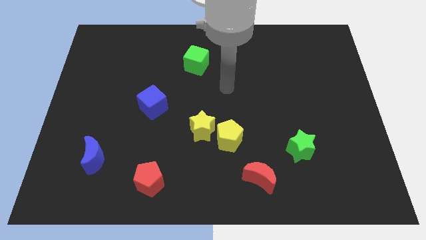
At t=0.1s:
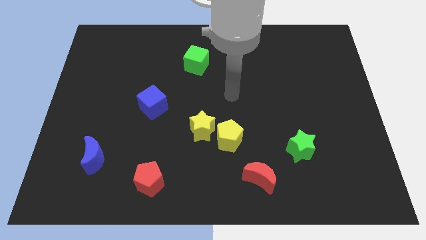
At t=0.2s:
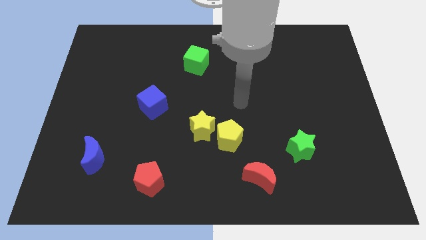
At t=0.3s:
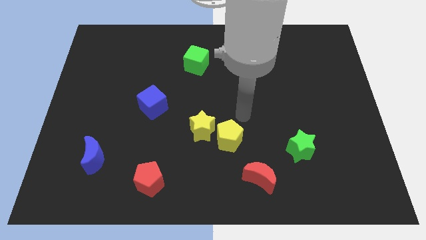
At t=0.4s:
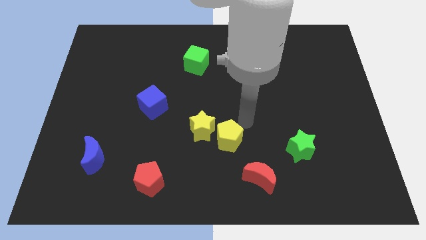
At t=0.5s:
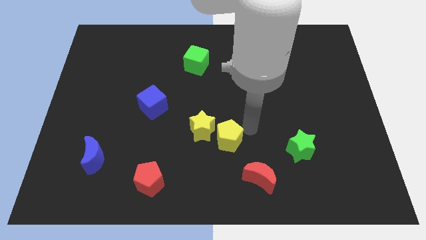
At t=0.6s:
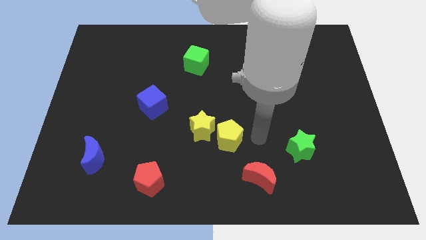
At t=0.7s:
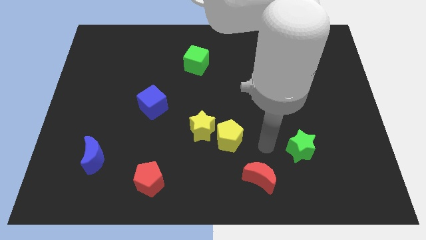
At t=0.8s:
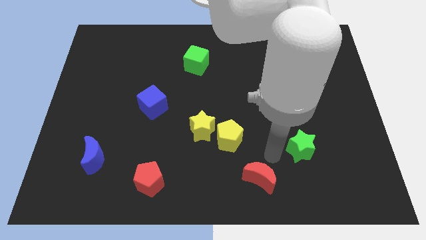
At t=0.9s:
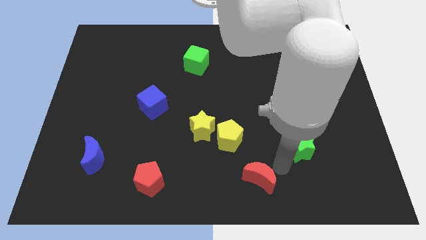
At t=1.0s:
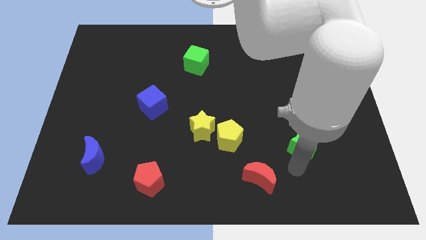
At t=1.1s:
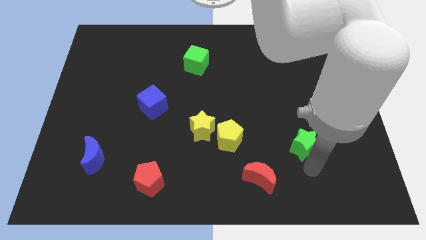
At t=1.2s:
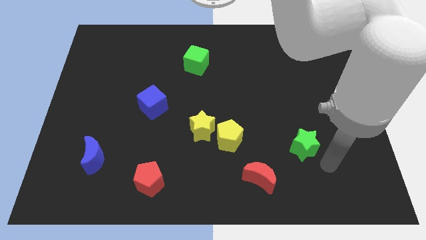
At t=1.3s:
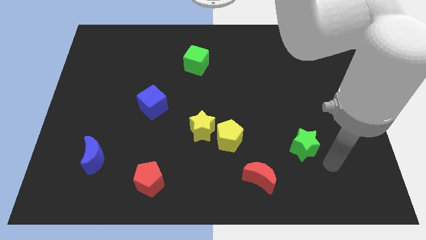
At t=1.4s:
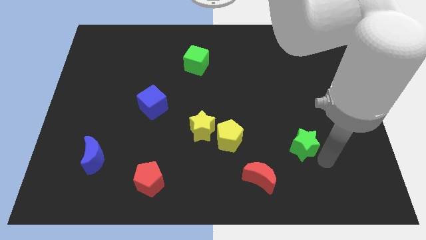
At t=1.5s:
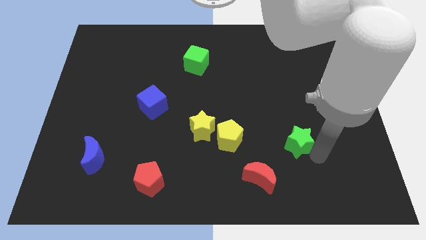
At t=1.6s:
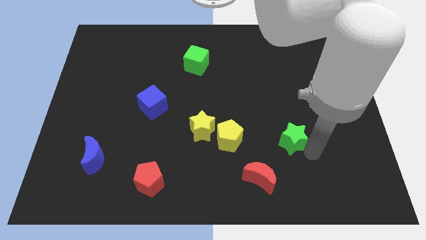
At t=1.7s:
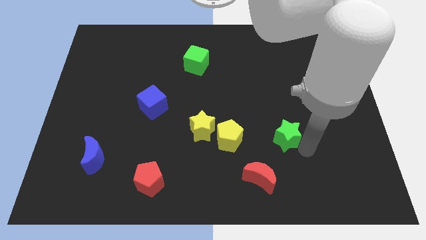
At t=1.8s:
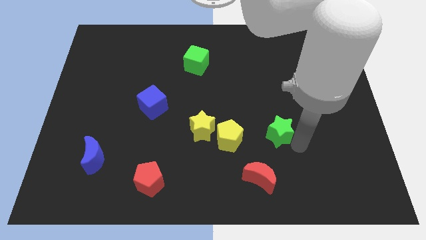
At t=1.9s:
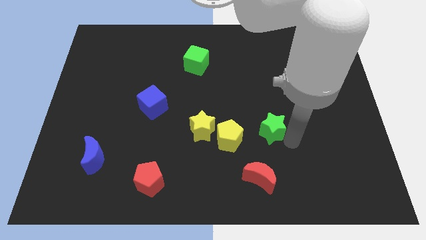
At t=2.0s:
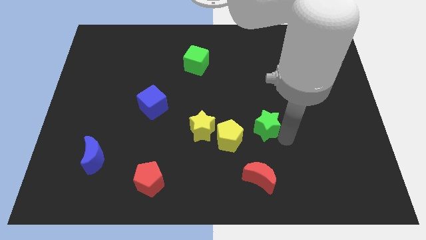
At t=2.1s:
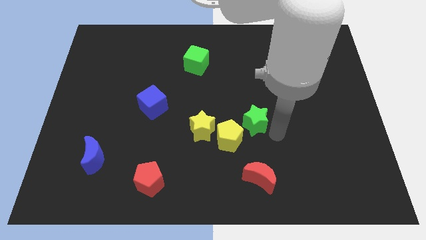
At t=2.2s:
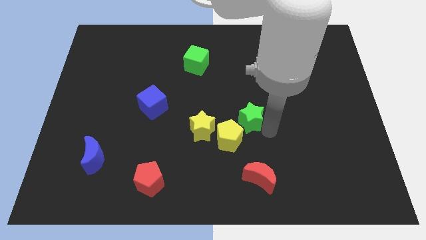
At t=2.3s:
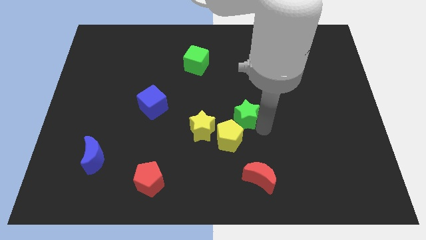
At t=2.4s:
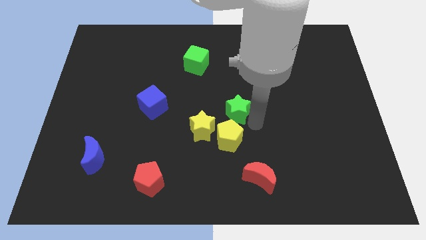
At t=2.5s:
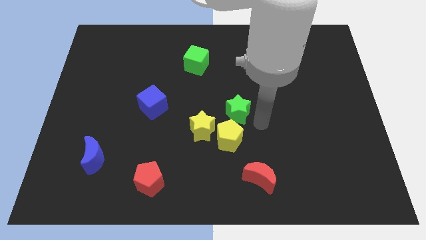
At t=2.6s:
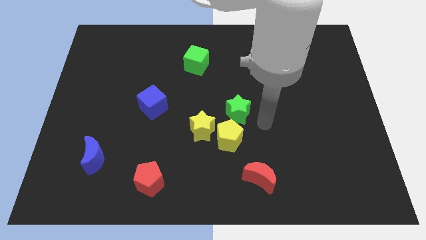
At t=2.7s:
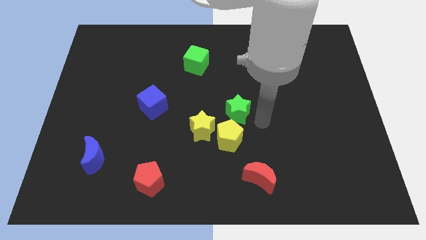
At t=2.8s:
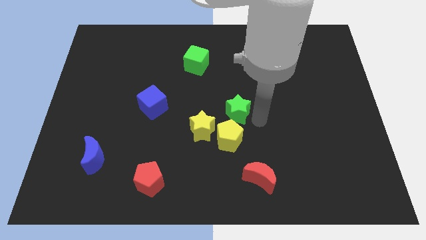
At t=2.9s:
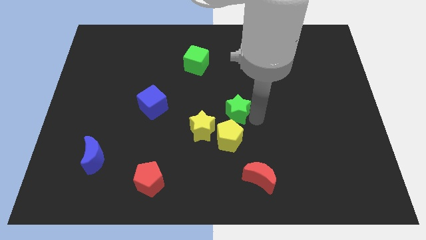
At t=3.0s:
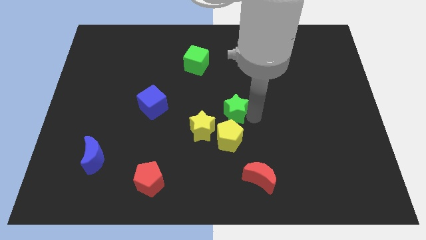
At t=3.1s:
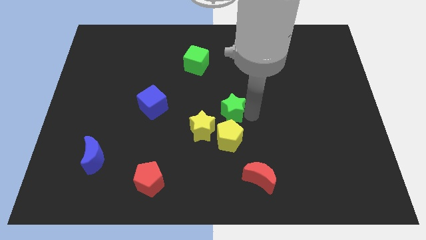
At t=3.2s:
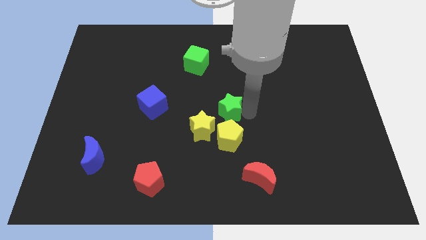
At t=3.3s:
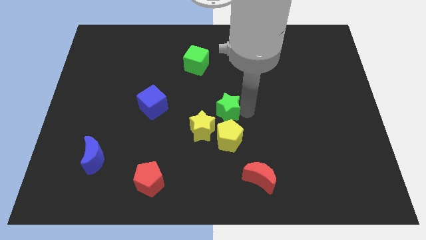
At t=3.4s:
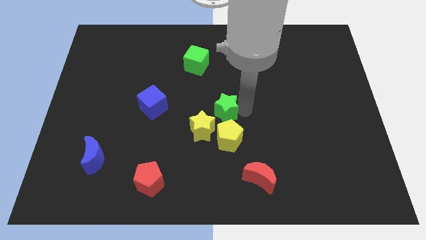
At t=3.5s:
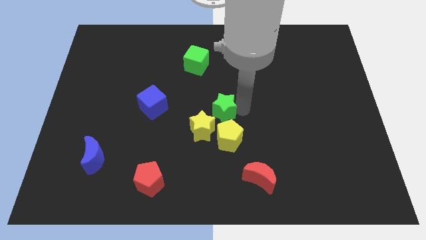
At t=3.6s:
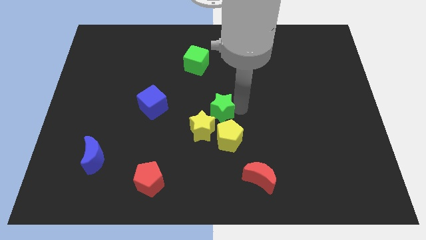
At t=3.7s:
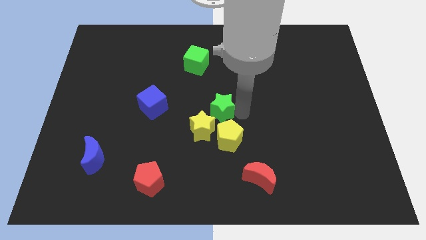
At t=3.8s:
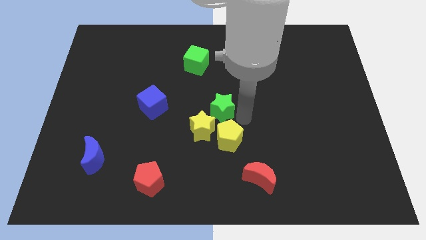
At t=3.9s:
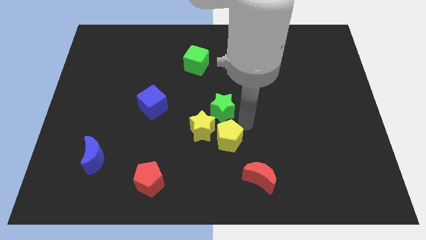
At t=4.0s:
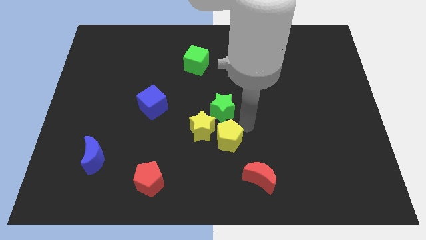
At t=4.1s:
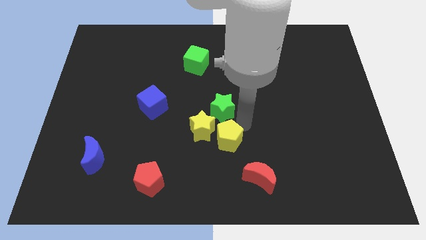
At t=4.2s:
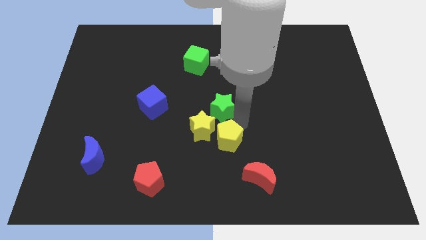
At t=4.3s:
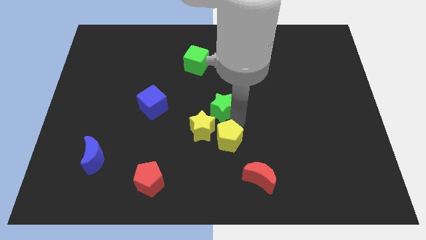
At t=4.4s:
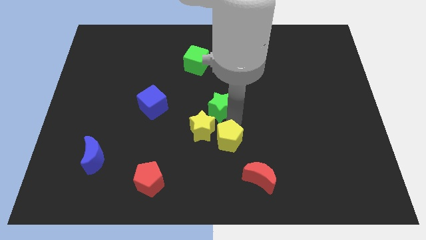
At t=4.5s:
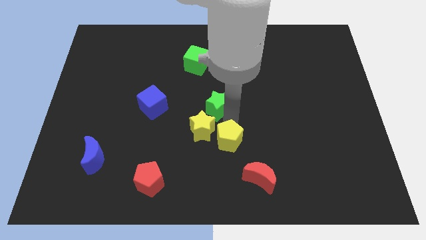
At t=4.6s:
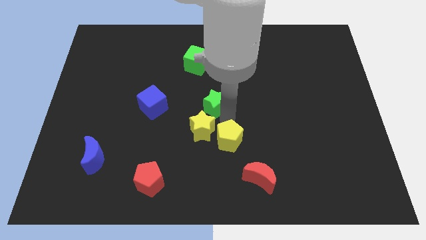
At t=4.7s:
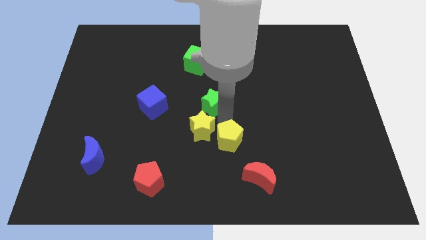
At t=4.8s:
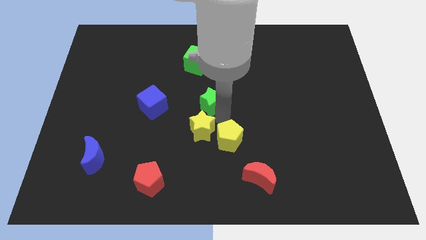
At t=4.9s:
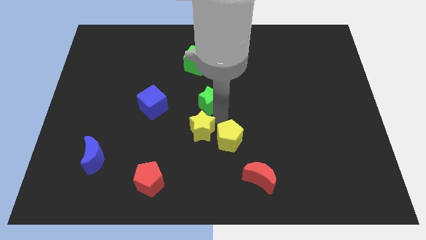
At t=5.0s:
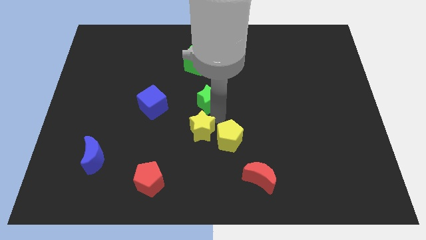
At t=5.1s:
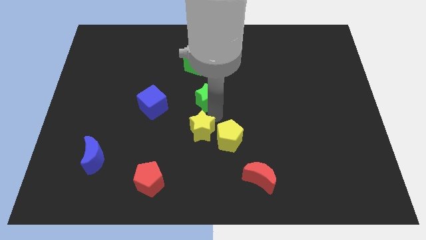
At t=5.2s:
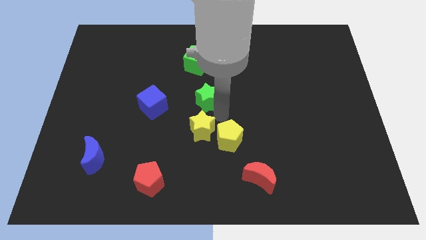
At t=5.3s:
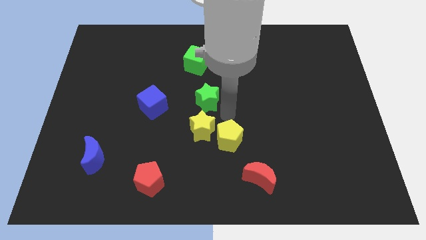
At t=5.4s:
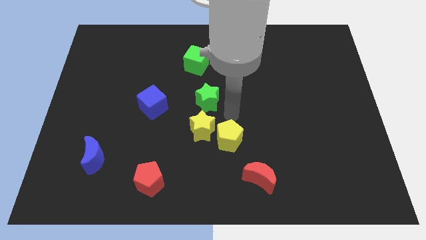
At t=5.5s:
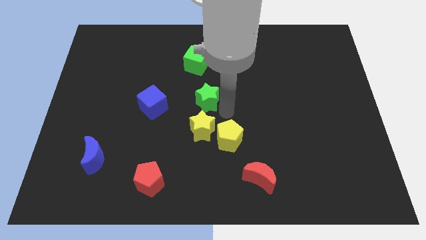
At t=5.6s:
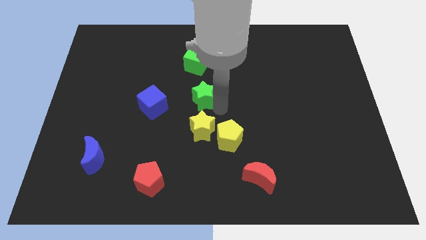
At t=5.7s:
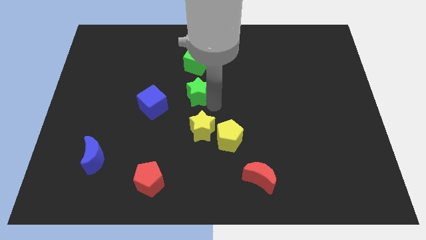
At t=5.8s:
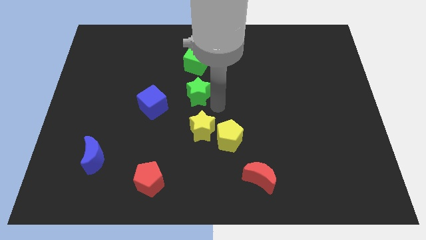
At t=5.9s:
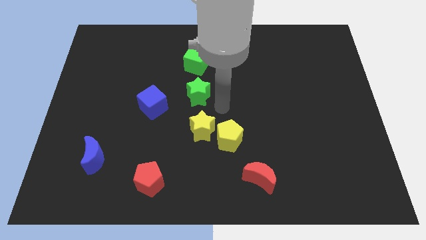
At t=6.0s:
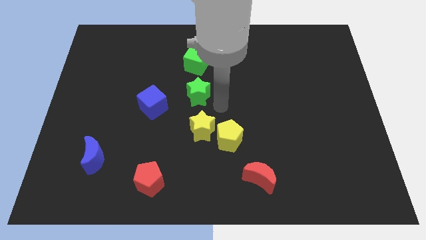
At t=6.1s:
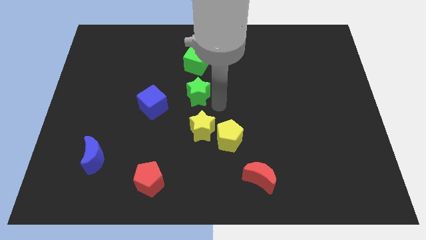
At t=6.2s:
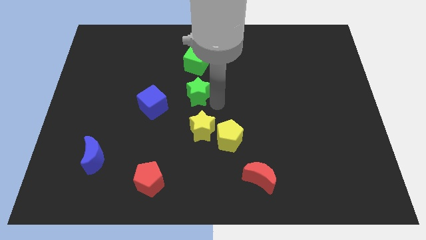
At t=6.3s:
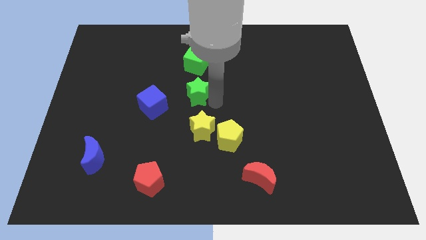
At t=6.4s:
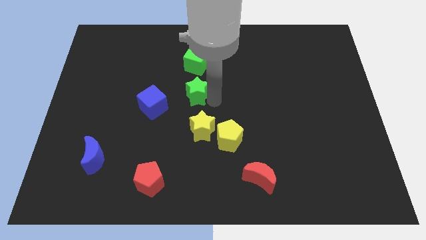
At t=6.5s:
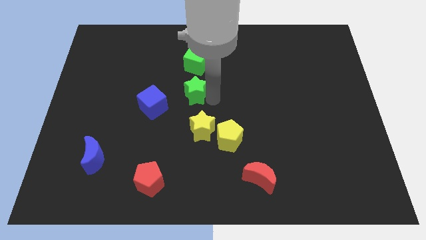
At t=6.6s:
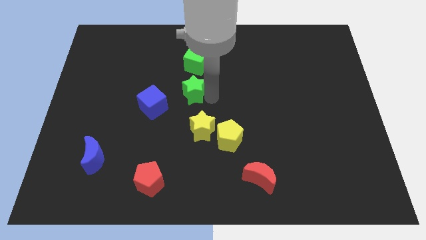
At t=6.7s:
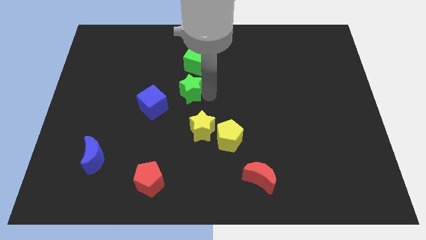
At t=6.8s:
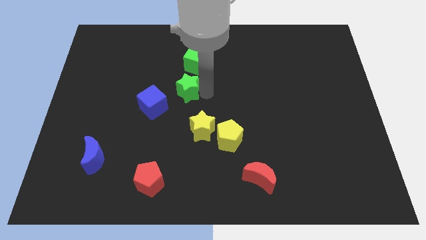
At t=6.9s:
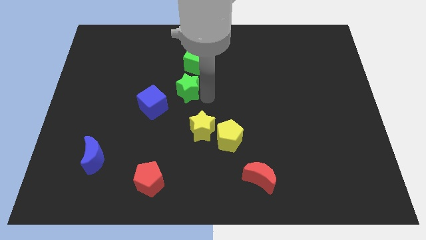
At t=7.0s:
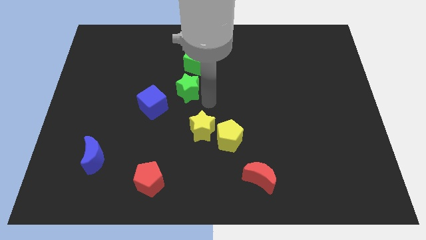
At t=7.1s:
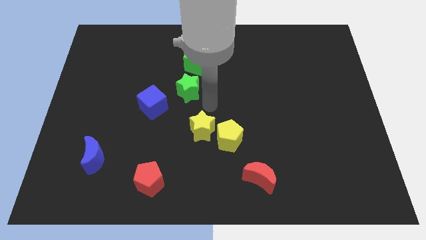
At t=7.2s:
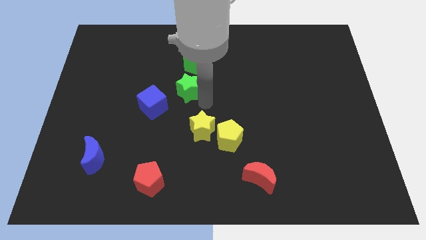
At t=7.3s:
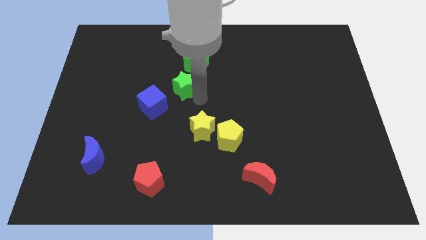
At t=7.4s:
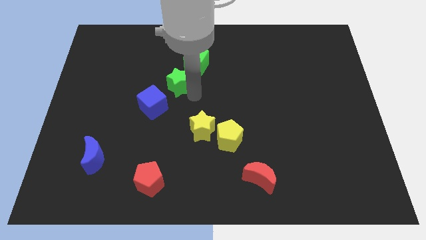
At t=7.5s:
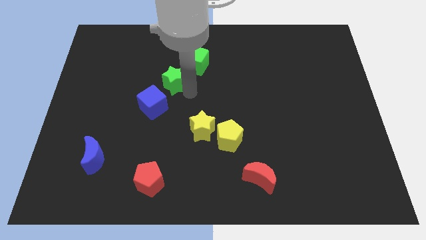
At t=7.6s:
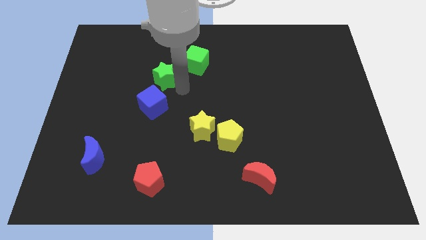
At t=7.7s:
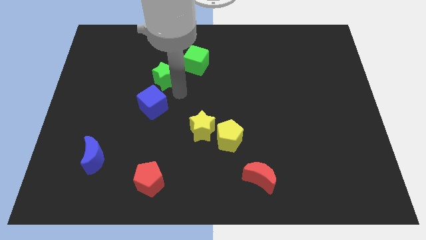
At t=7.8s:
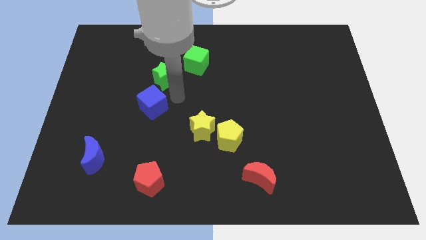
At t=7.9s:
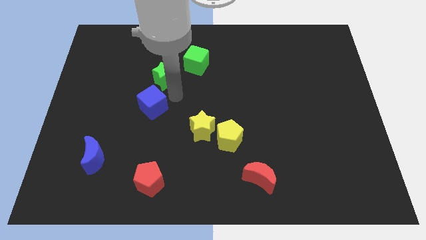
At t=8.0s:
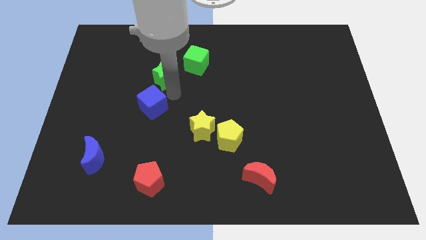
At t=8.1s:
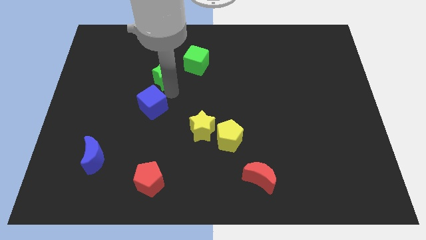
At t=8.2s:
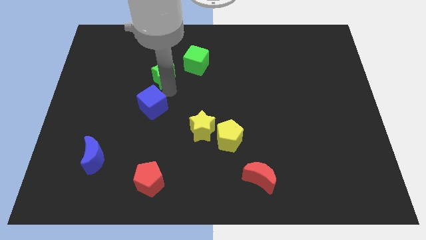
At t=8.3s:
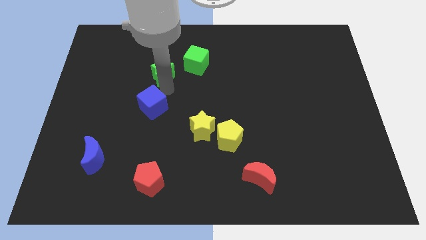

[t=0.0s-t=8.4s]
put the green star just left of the green cube
